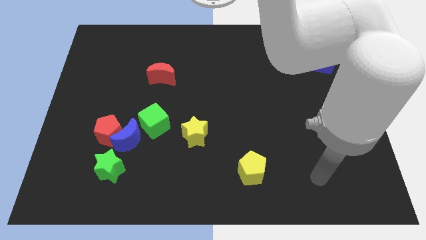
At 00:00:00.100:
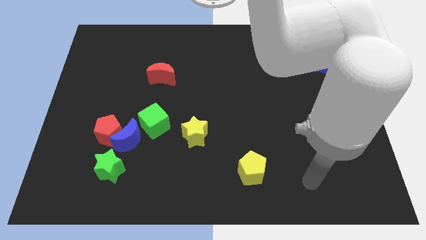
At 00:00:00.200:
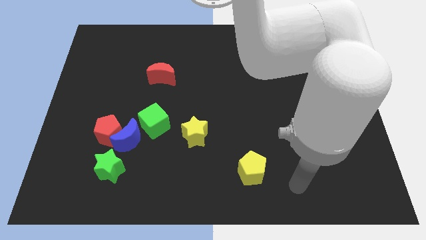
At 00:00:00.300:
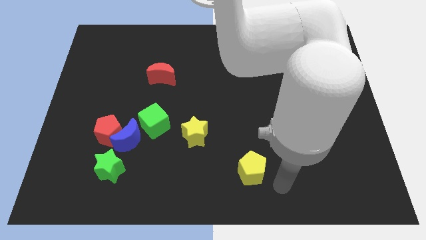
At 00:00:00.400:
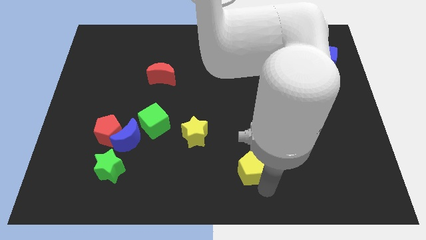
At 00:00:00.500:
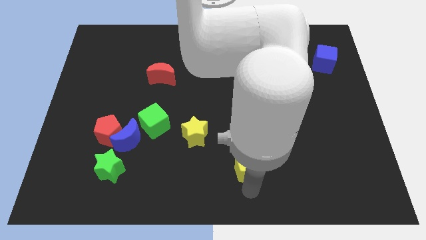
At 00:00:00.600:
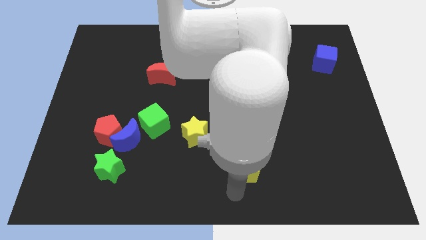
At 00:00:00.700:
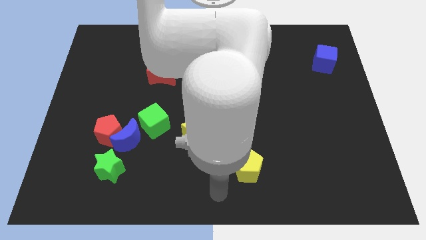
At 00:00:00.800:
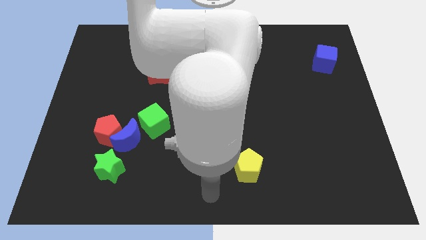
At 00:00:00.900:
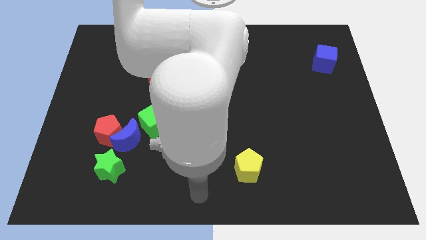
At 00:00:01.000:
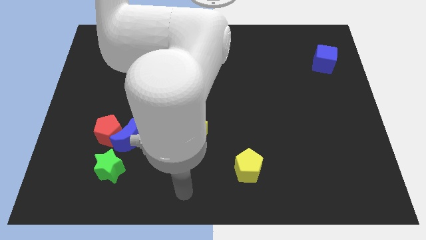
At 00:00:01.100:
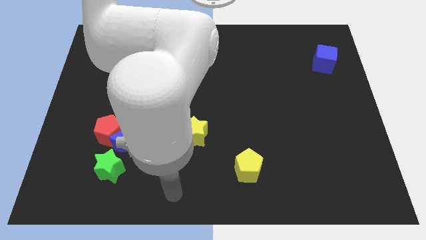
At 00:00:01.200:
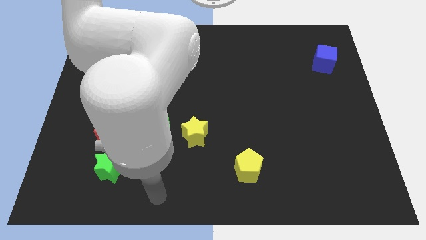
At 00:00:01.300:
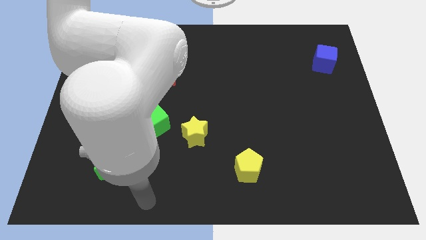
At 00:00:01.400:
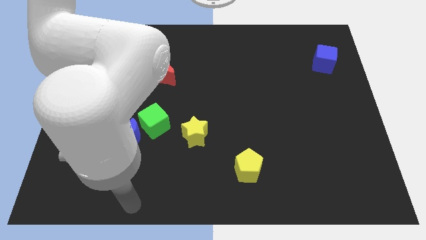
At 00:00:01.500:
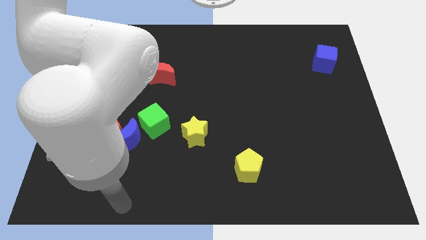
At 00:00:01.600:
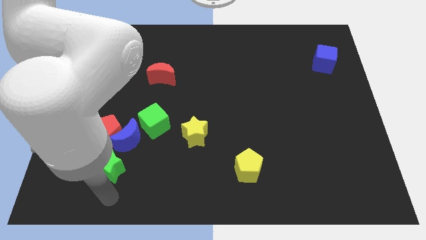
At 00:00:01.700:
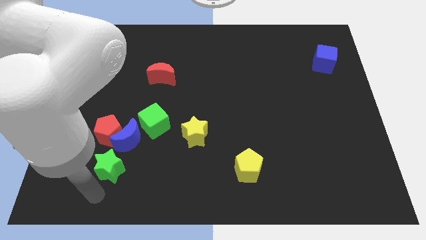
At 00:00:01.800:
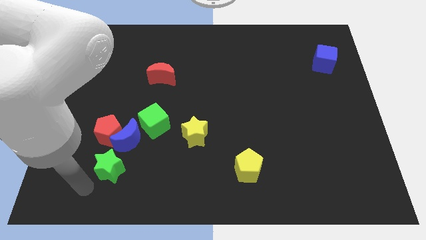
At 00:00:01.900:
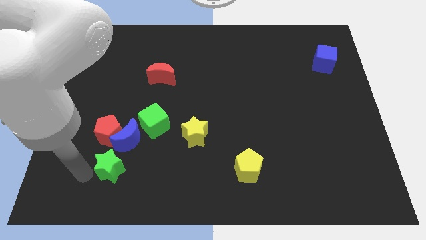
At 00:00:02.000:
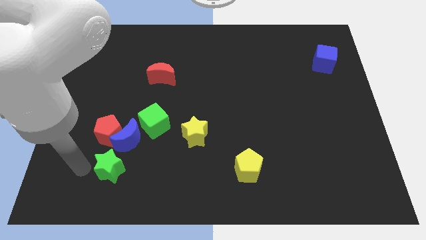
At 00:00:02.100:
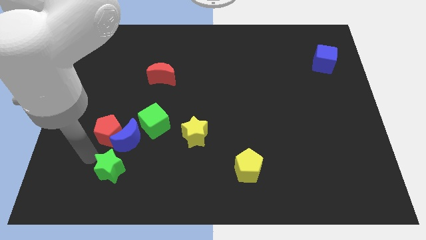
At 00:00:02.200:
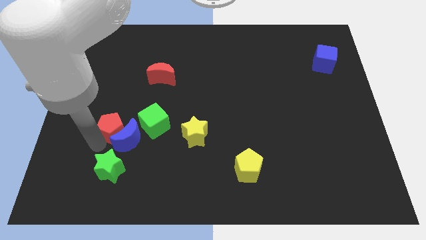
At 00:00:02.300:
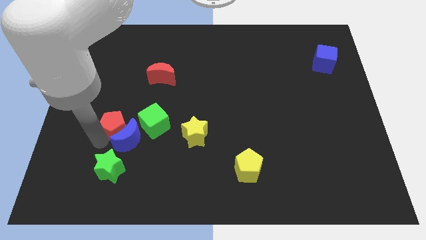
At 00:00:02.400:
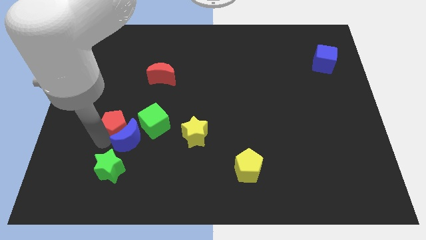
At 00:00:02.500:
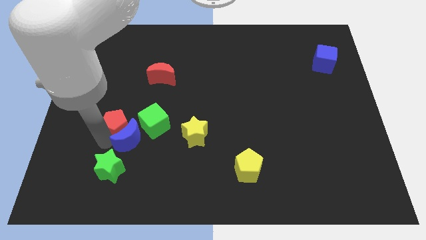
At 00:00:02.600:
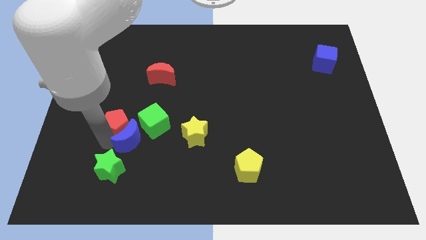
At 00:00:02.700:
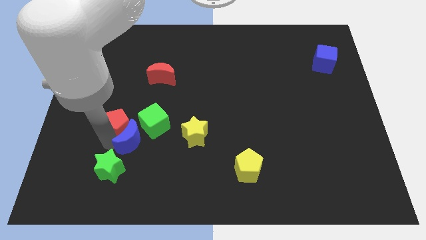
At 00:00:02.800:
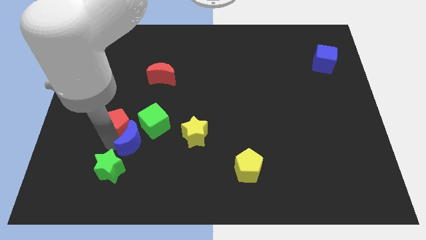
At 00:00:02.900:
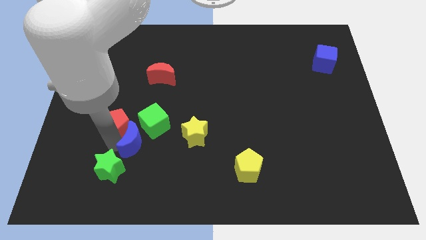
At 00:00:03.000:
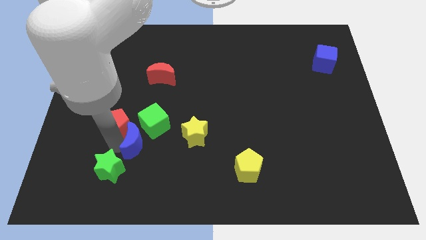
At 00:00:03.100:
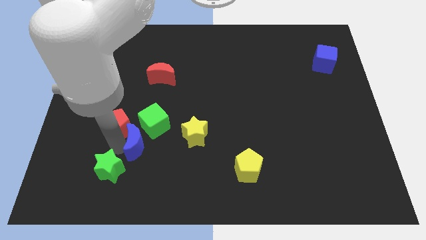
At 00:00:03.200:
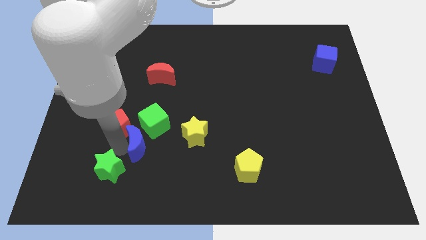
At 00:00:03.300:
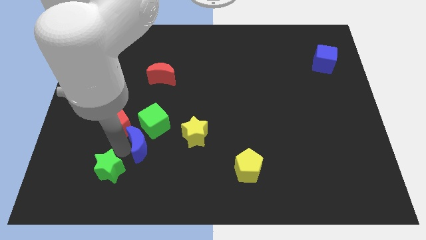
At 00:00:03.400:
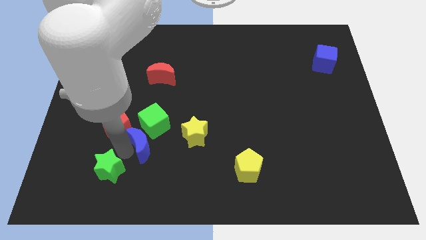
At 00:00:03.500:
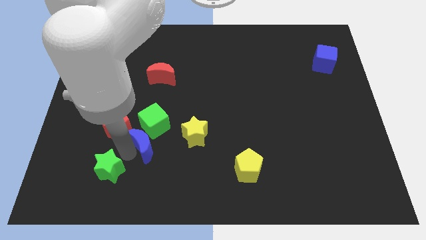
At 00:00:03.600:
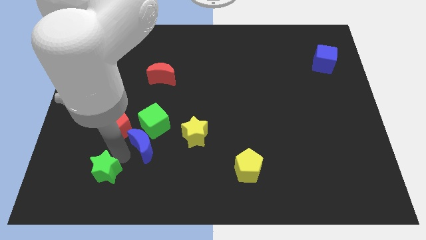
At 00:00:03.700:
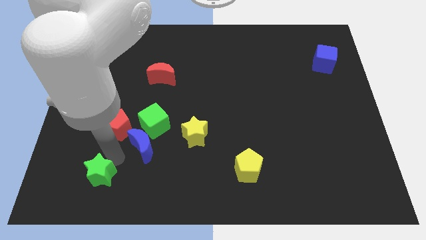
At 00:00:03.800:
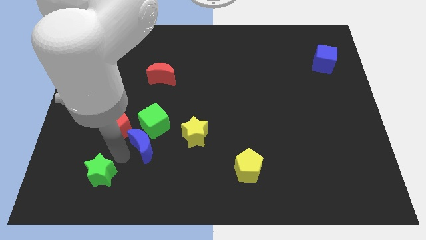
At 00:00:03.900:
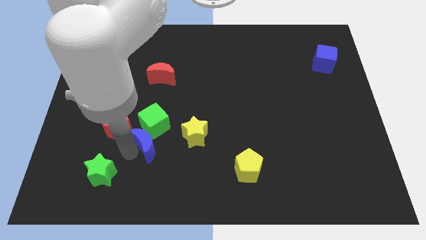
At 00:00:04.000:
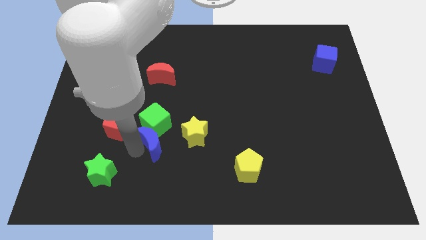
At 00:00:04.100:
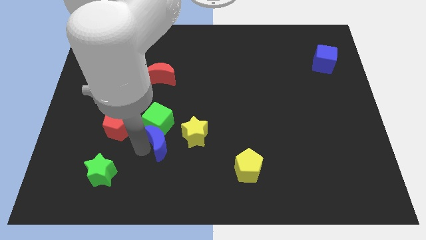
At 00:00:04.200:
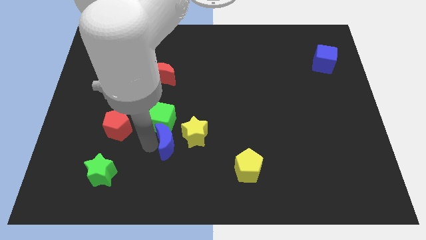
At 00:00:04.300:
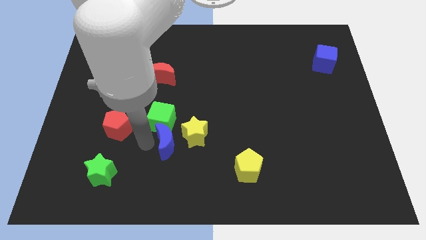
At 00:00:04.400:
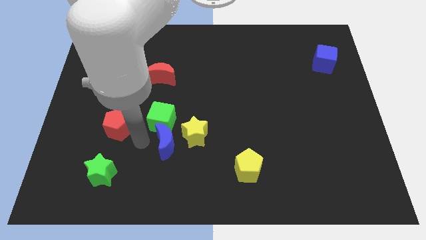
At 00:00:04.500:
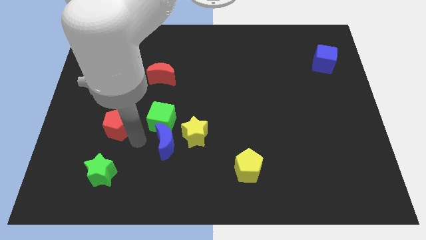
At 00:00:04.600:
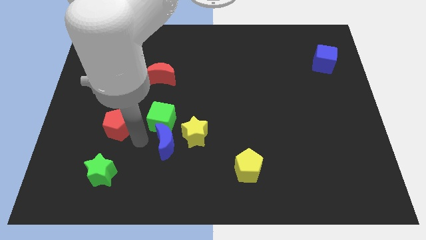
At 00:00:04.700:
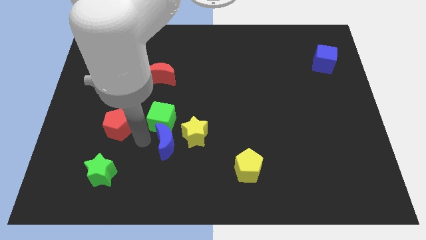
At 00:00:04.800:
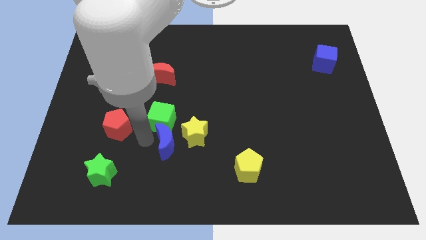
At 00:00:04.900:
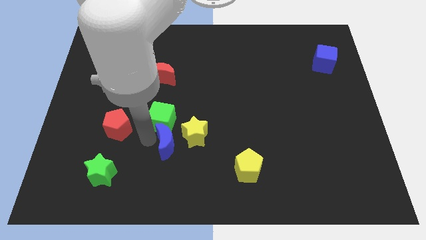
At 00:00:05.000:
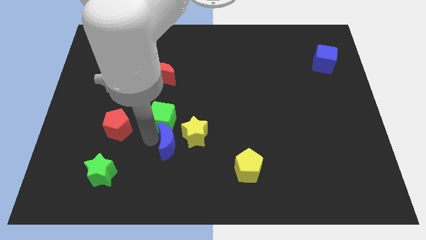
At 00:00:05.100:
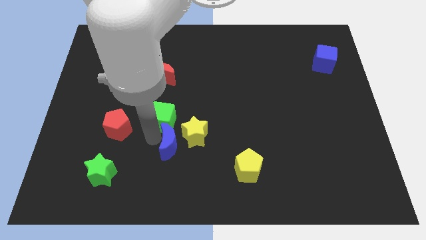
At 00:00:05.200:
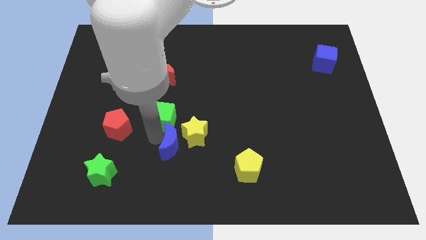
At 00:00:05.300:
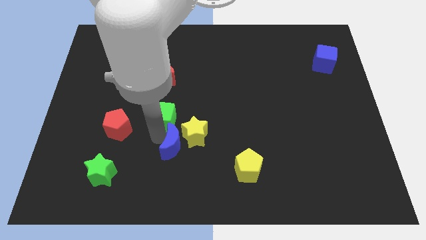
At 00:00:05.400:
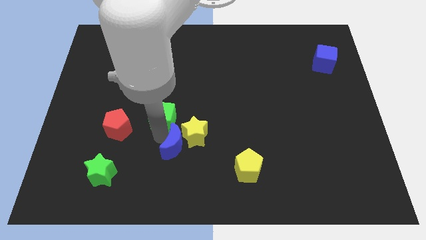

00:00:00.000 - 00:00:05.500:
move the blue moon away from the red pentagon, green cube, and green star

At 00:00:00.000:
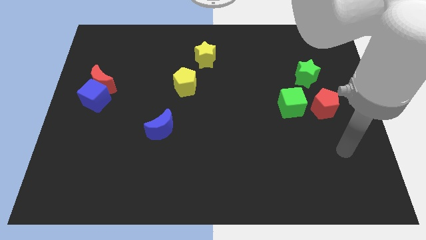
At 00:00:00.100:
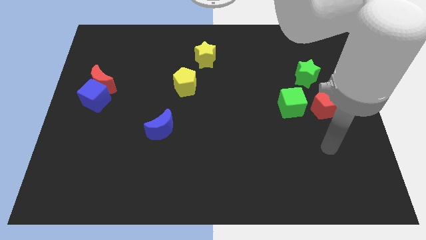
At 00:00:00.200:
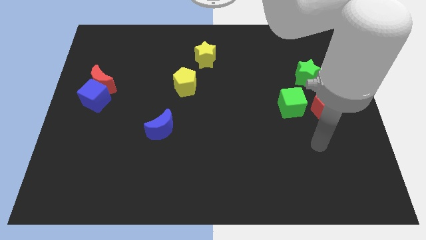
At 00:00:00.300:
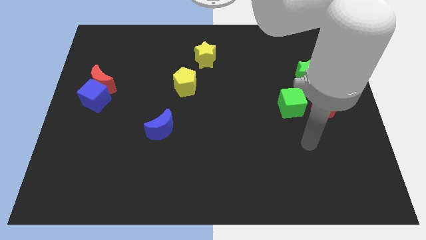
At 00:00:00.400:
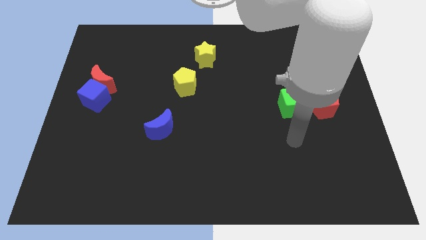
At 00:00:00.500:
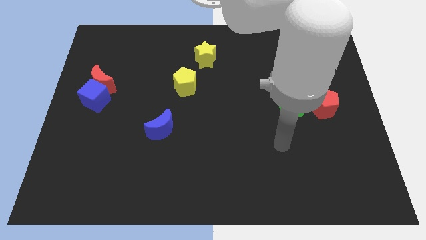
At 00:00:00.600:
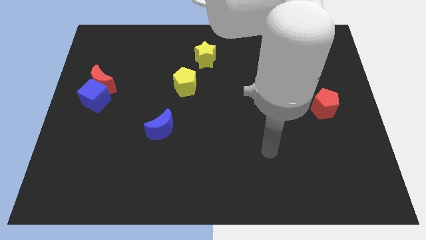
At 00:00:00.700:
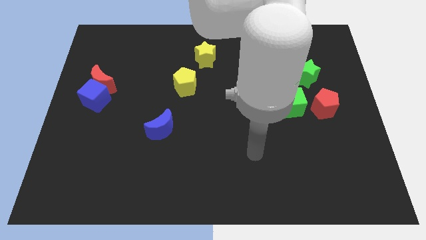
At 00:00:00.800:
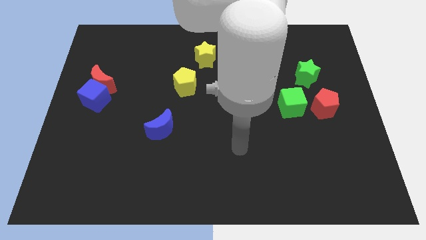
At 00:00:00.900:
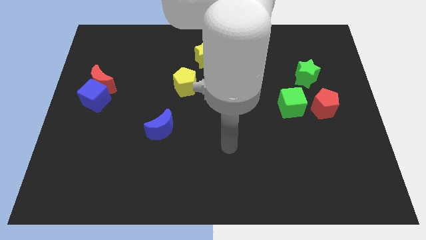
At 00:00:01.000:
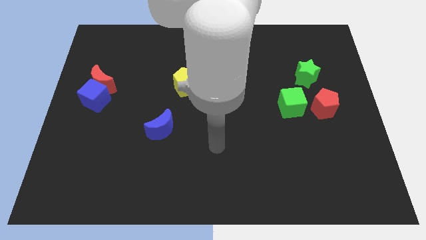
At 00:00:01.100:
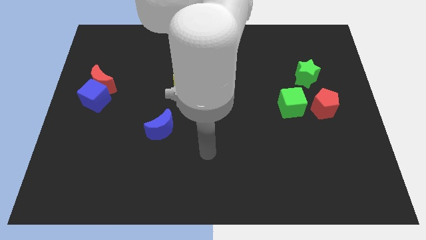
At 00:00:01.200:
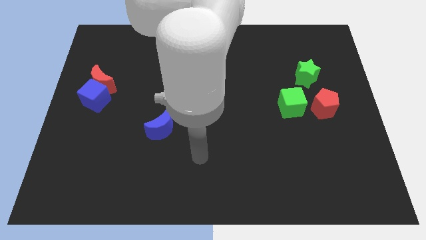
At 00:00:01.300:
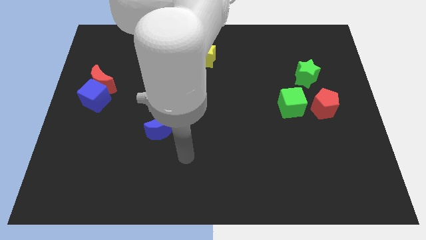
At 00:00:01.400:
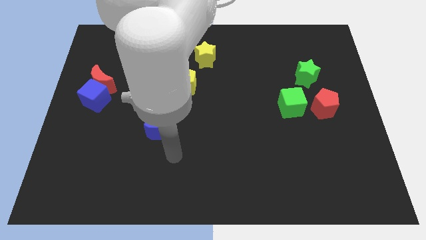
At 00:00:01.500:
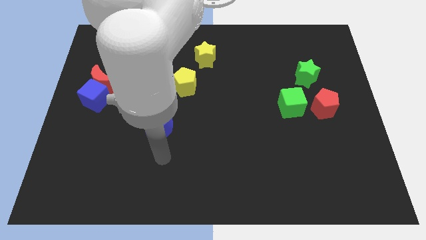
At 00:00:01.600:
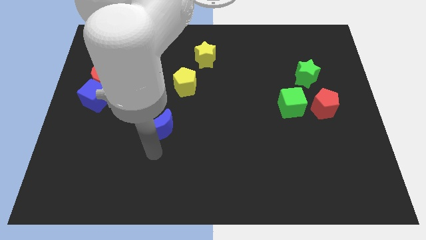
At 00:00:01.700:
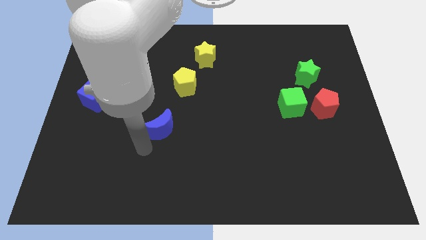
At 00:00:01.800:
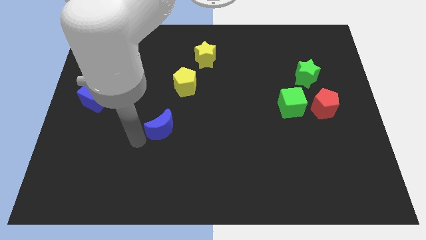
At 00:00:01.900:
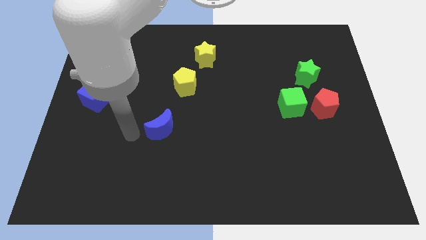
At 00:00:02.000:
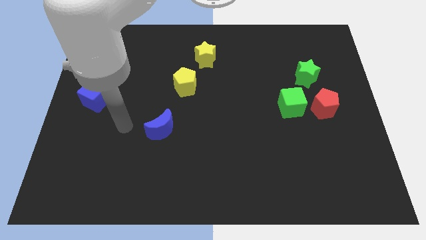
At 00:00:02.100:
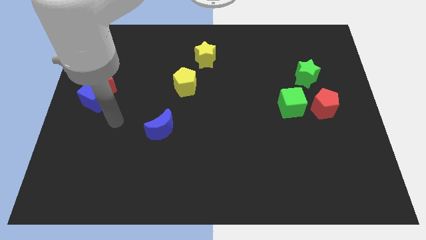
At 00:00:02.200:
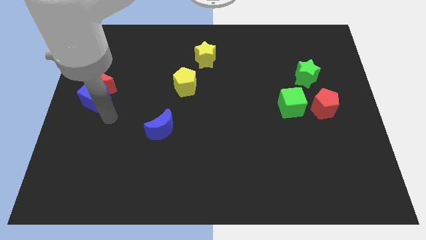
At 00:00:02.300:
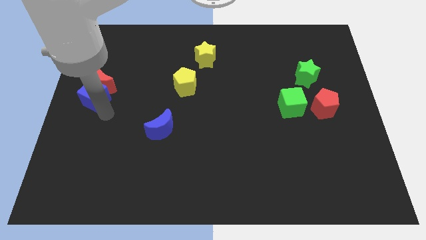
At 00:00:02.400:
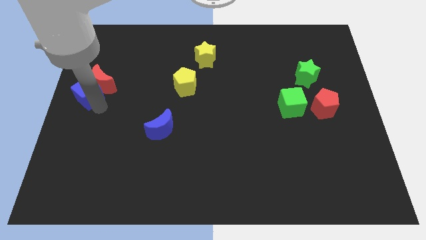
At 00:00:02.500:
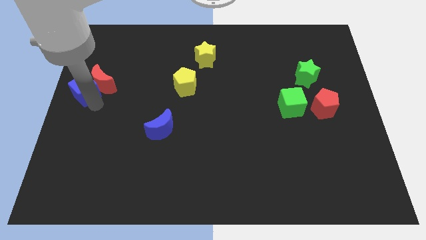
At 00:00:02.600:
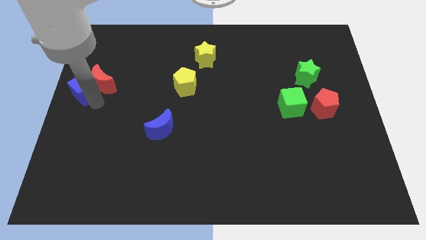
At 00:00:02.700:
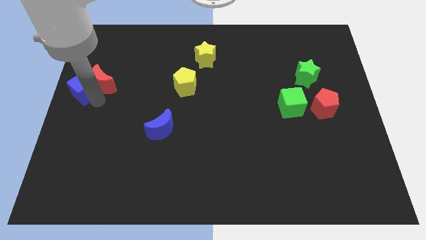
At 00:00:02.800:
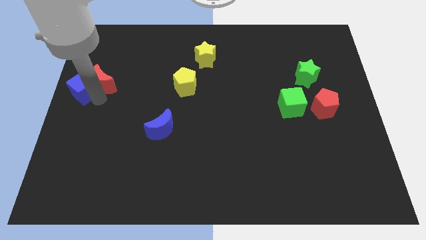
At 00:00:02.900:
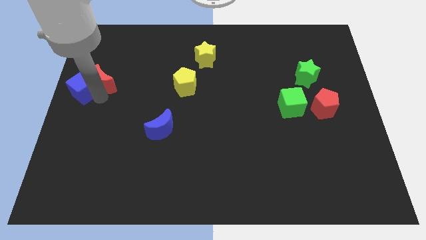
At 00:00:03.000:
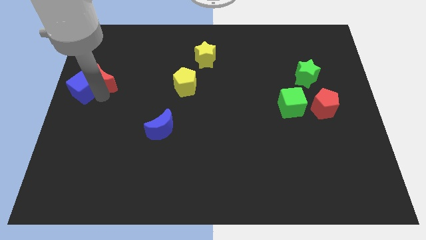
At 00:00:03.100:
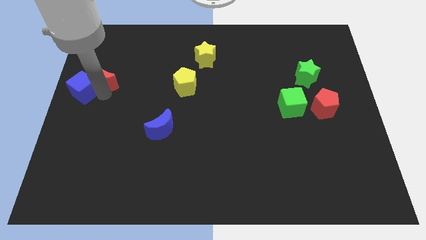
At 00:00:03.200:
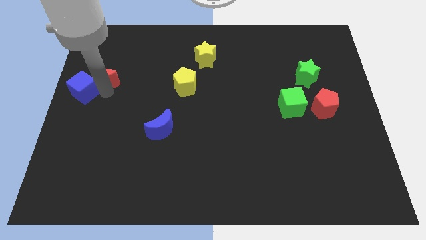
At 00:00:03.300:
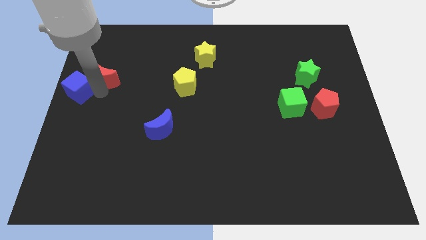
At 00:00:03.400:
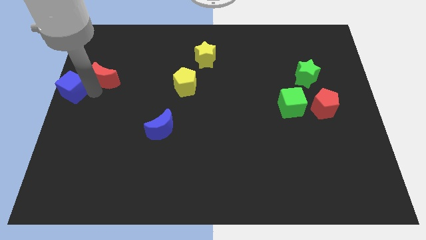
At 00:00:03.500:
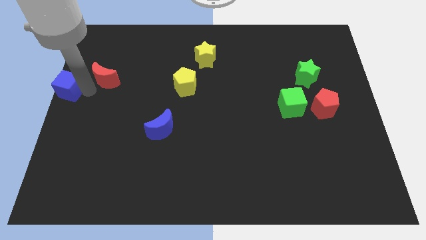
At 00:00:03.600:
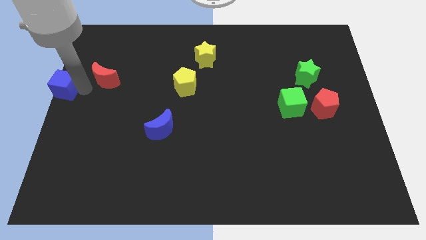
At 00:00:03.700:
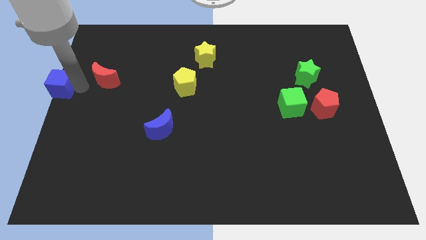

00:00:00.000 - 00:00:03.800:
separate the red moon from the blue cube
